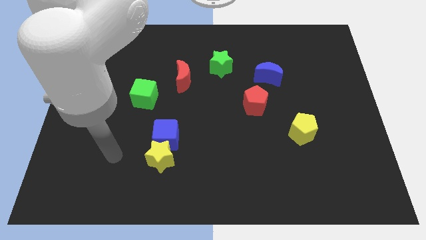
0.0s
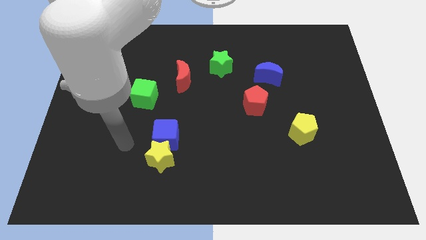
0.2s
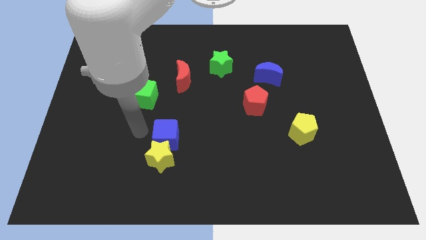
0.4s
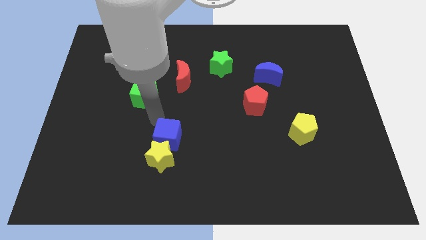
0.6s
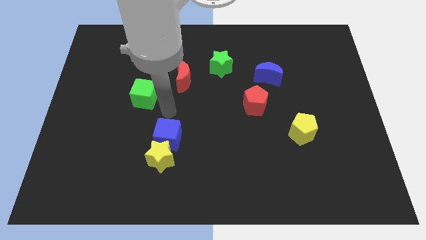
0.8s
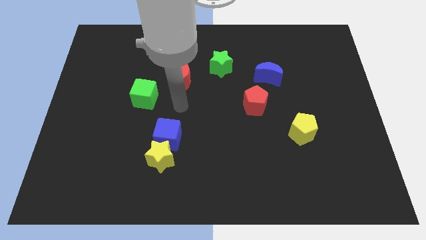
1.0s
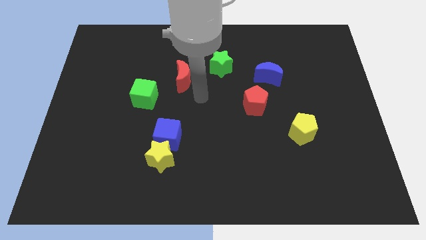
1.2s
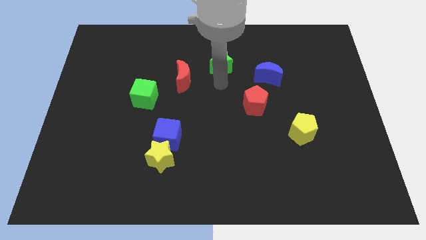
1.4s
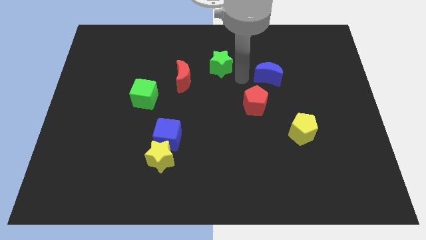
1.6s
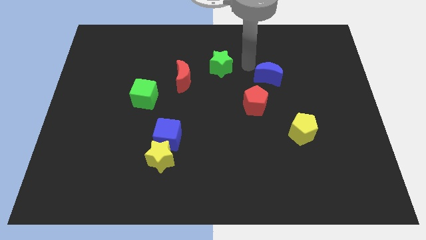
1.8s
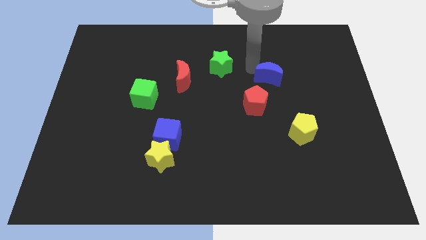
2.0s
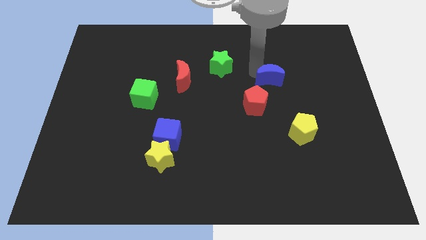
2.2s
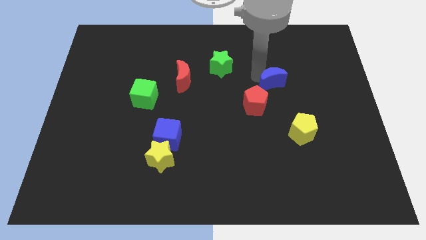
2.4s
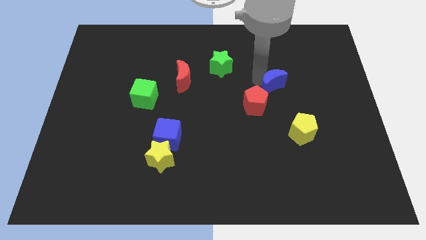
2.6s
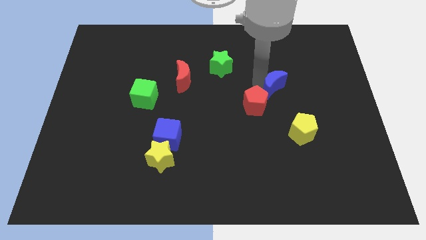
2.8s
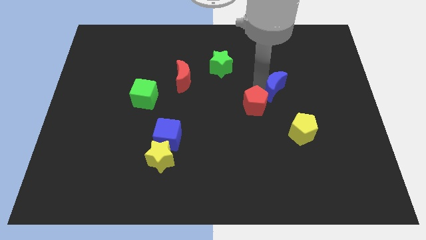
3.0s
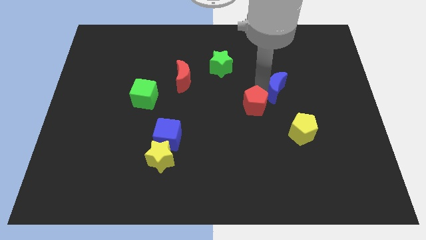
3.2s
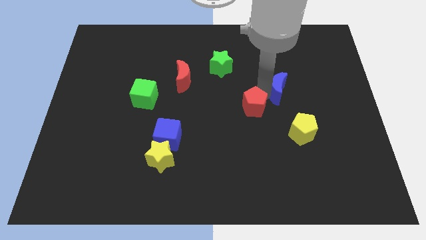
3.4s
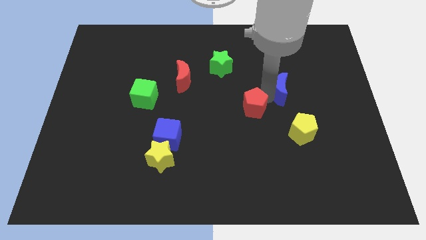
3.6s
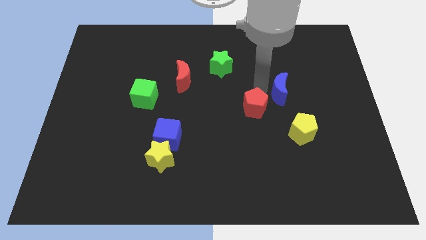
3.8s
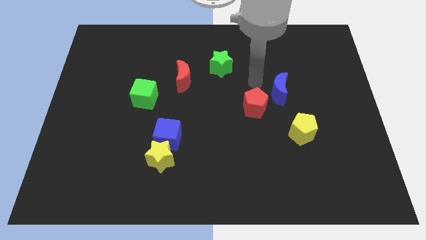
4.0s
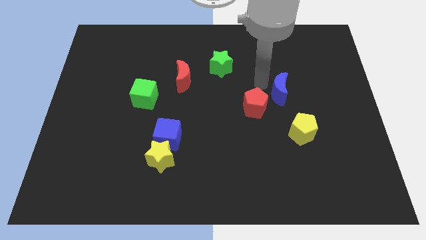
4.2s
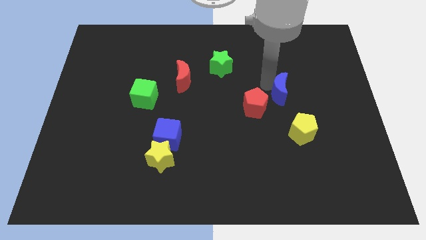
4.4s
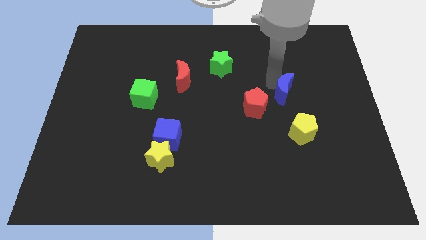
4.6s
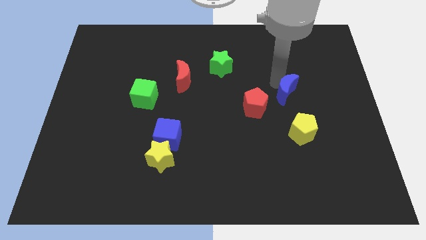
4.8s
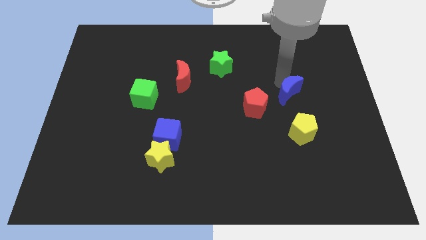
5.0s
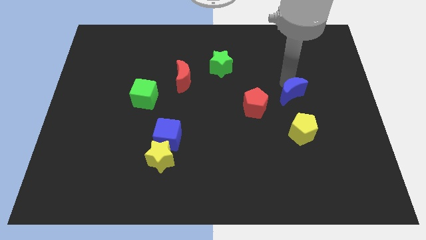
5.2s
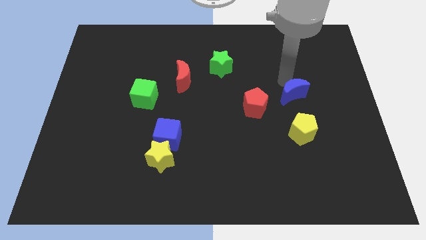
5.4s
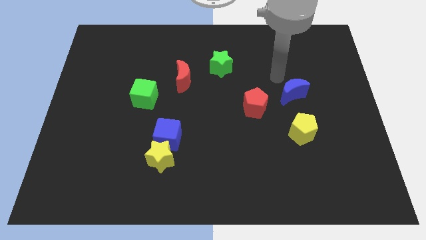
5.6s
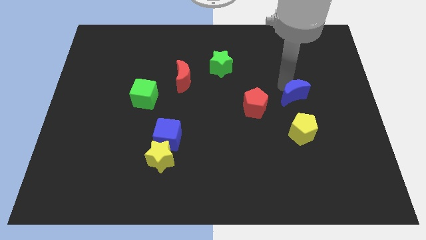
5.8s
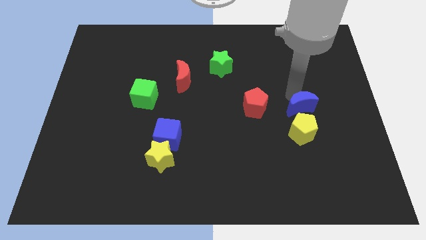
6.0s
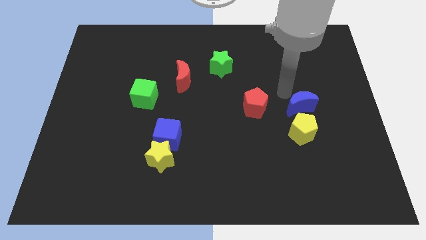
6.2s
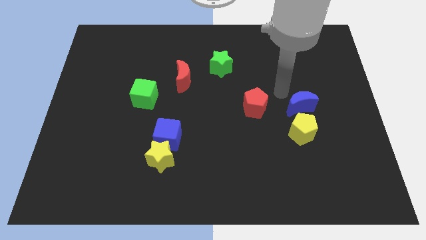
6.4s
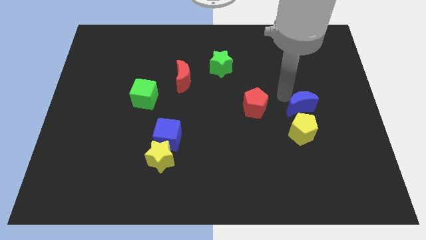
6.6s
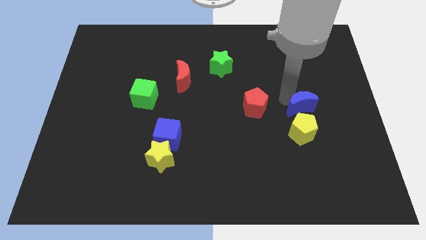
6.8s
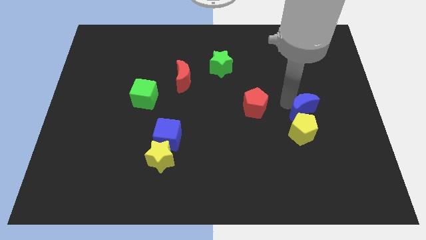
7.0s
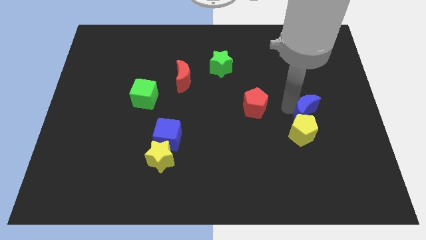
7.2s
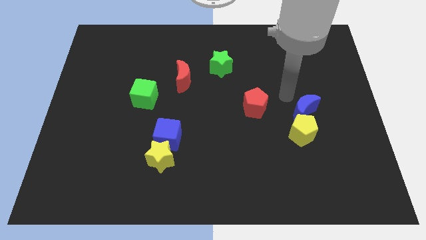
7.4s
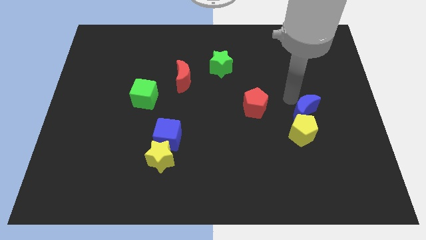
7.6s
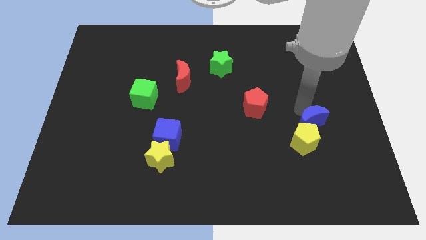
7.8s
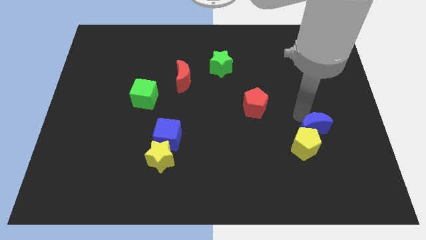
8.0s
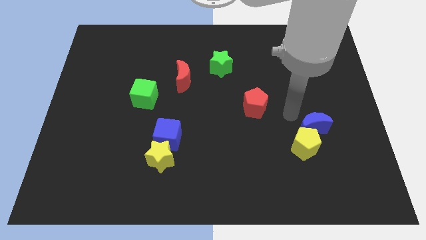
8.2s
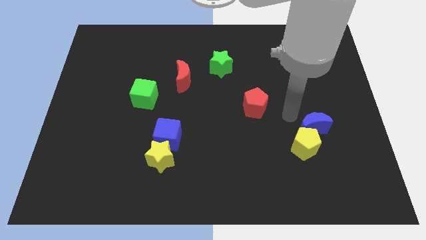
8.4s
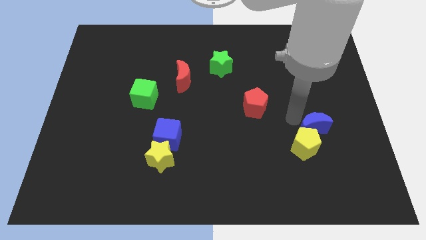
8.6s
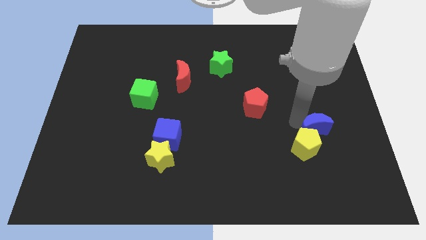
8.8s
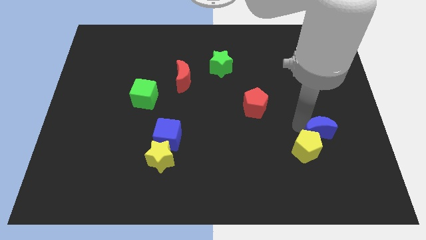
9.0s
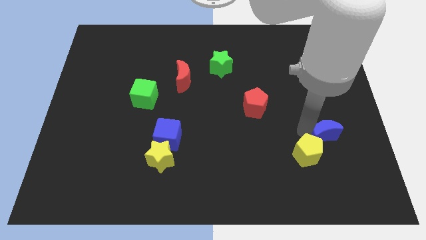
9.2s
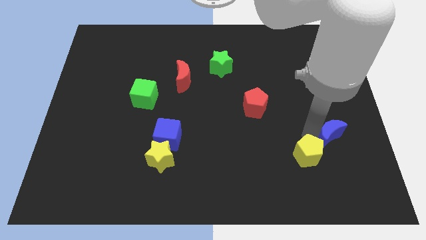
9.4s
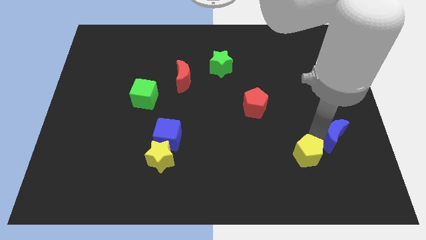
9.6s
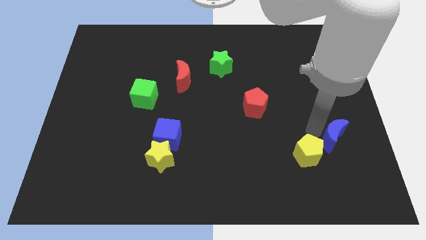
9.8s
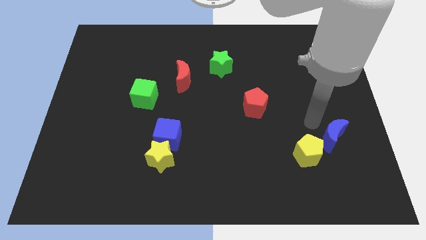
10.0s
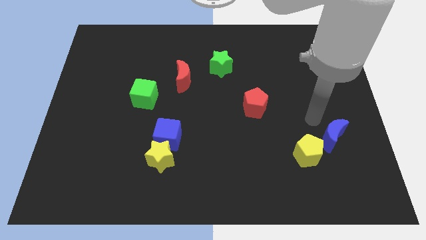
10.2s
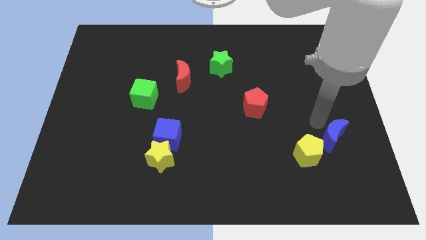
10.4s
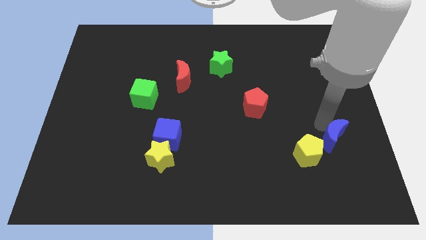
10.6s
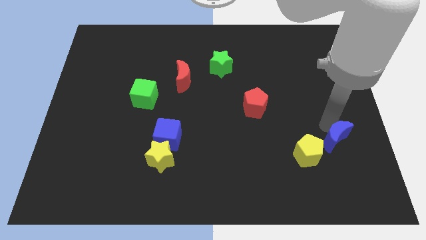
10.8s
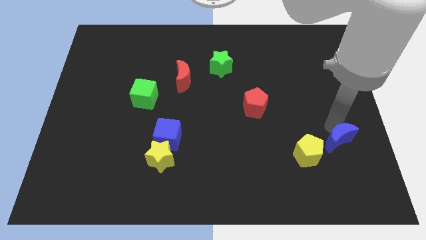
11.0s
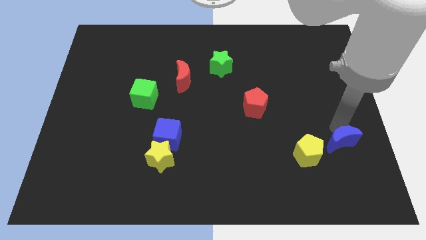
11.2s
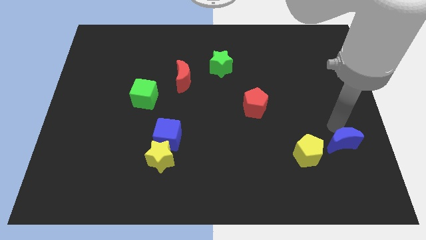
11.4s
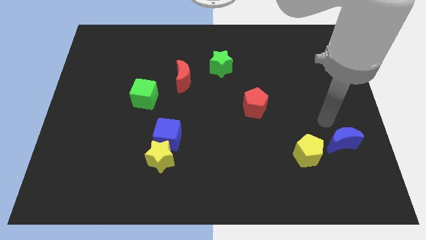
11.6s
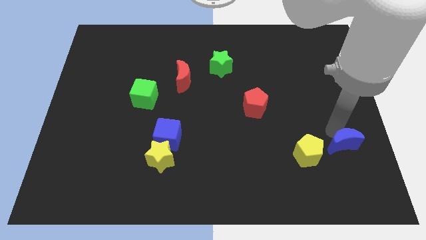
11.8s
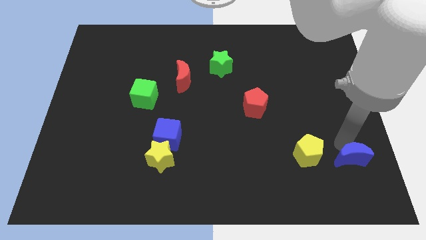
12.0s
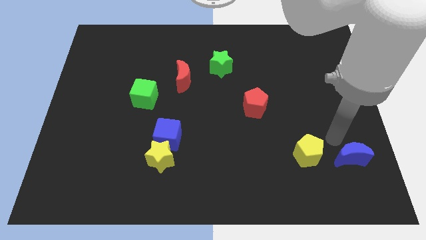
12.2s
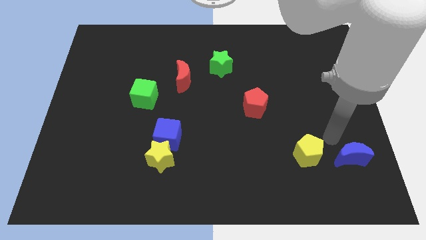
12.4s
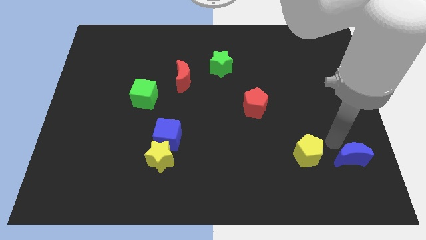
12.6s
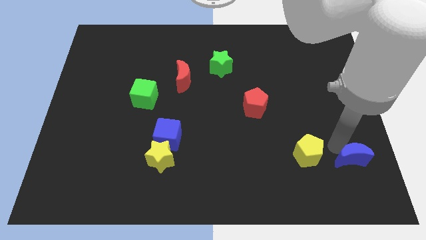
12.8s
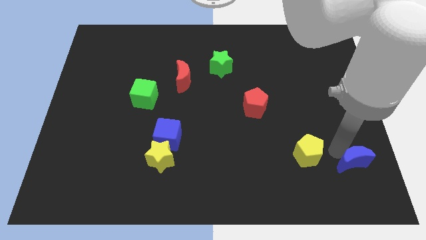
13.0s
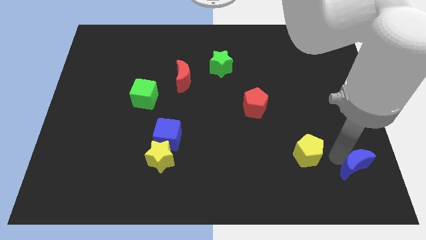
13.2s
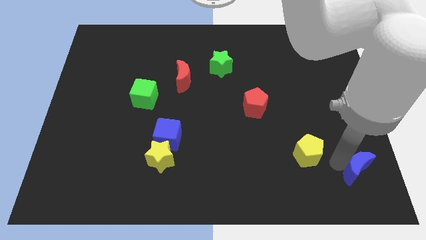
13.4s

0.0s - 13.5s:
slide the blue moon to the bottom right

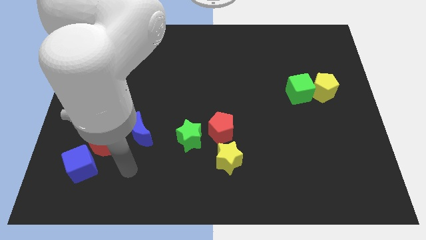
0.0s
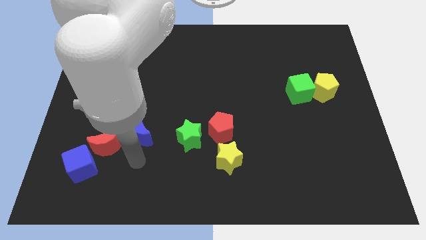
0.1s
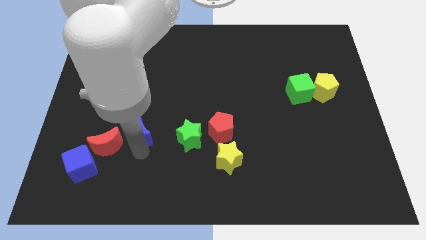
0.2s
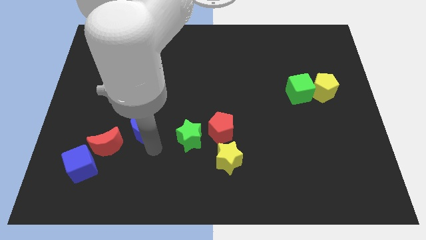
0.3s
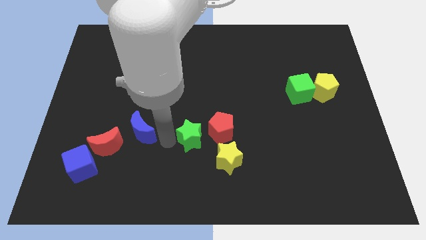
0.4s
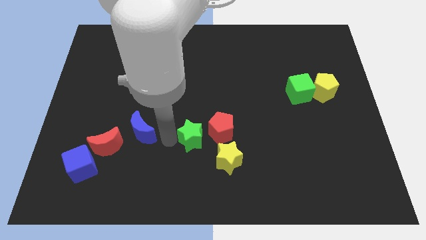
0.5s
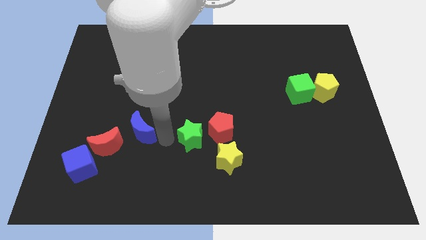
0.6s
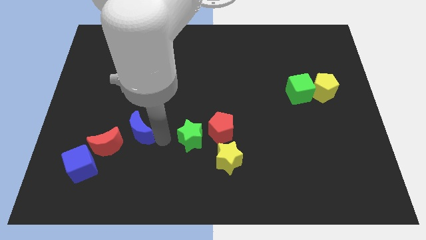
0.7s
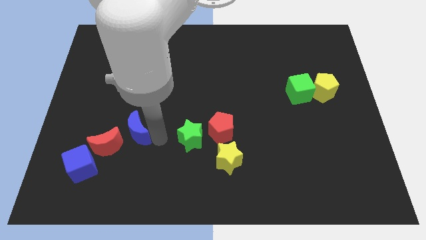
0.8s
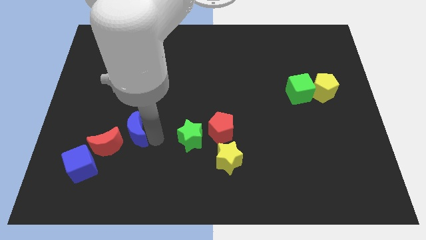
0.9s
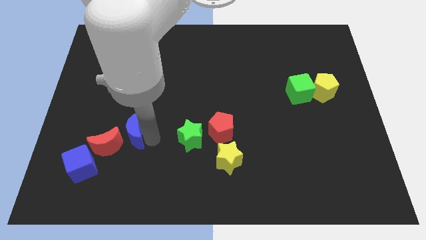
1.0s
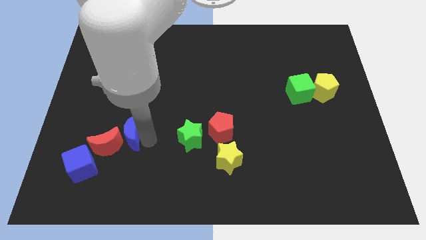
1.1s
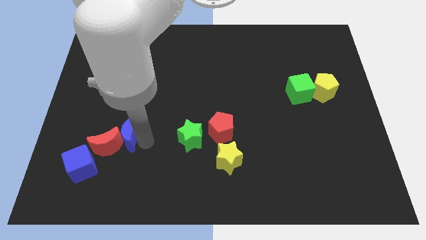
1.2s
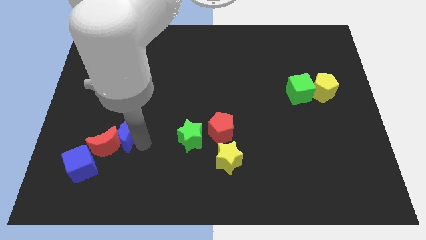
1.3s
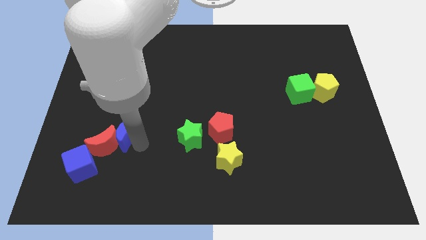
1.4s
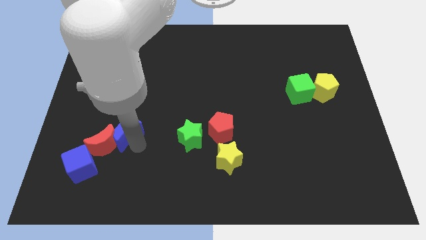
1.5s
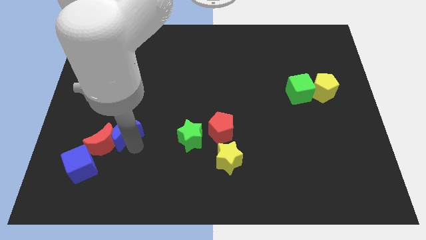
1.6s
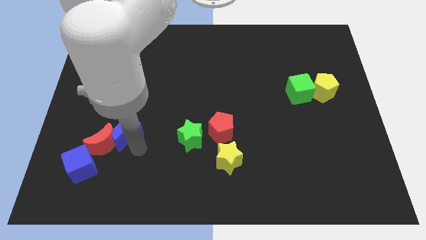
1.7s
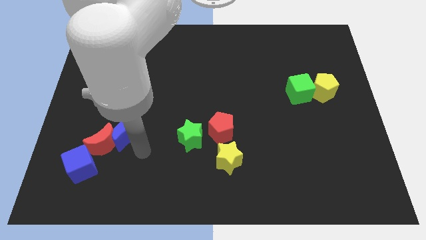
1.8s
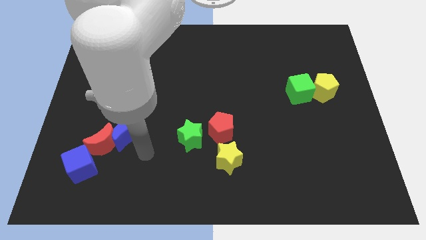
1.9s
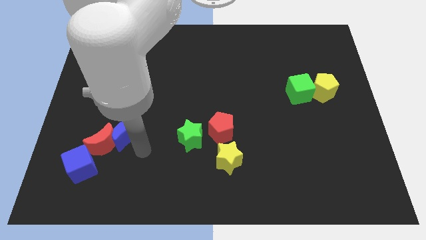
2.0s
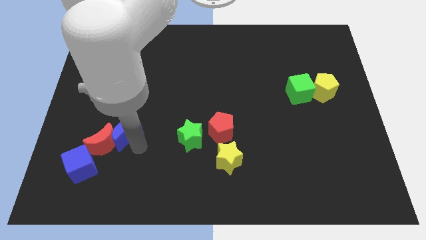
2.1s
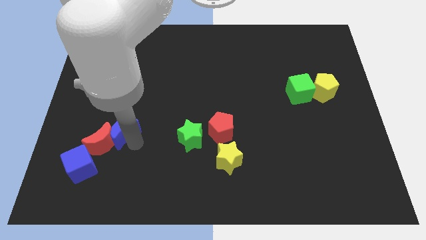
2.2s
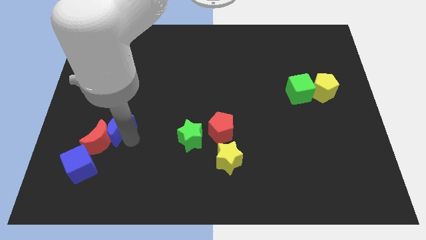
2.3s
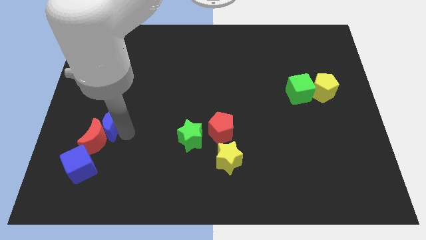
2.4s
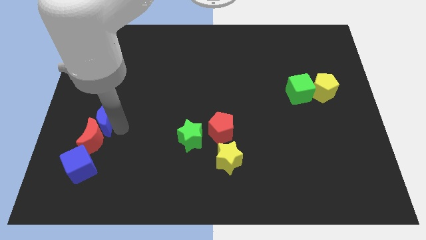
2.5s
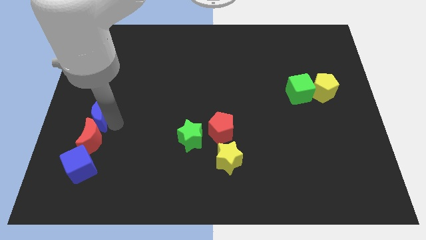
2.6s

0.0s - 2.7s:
slide the blue moon to the left side
